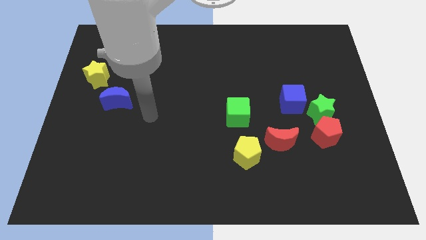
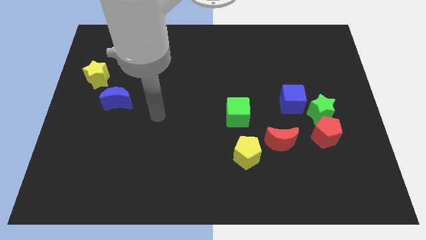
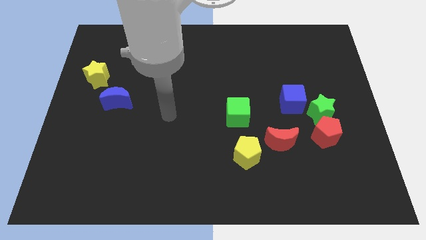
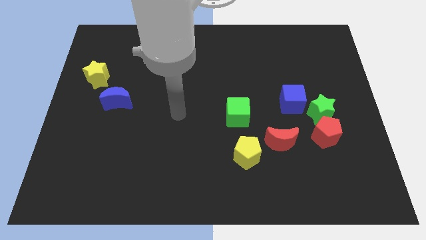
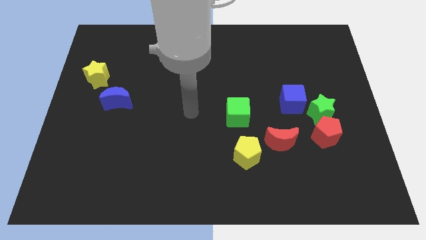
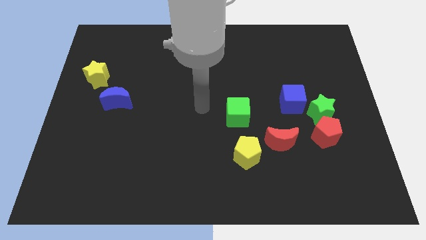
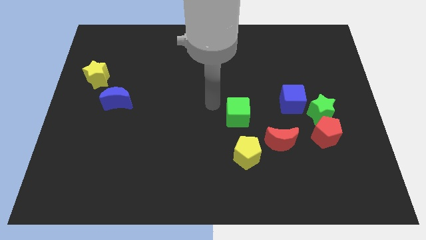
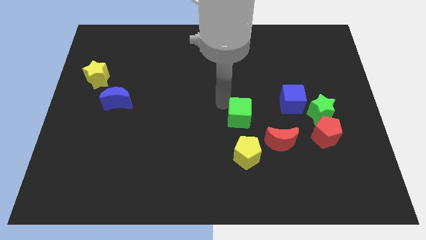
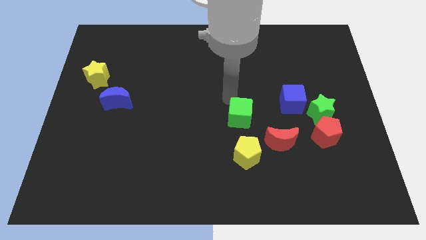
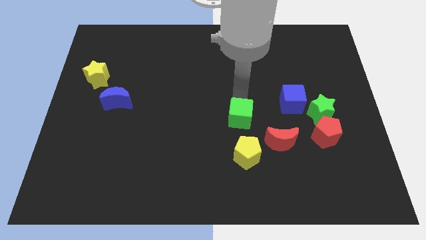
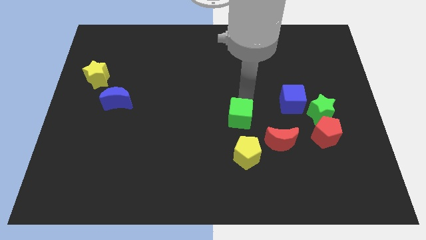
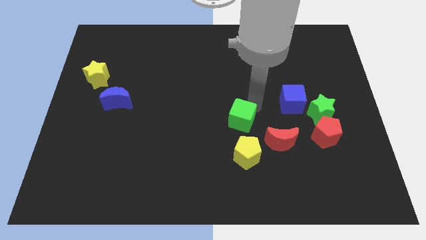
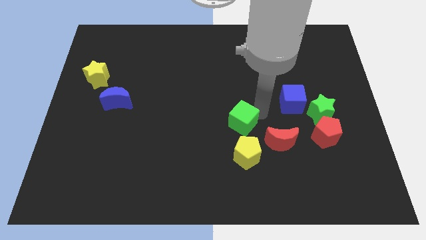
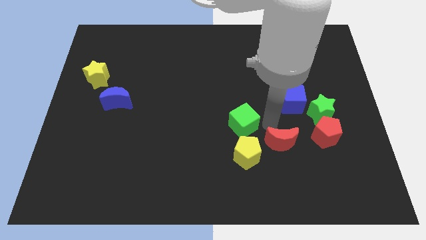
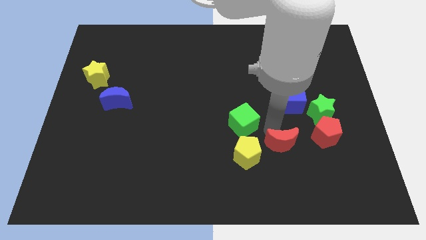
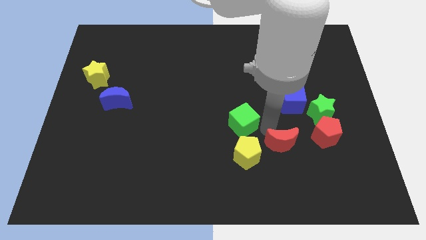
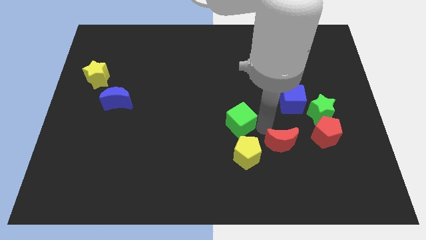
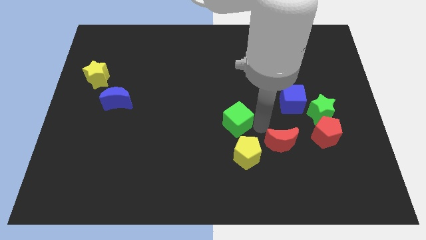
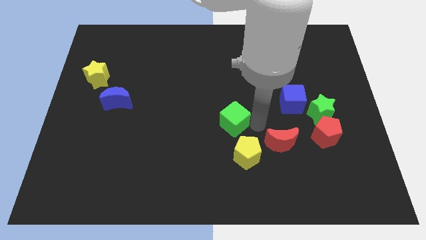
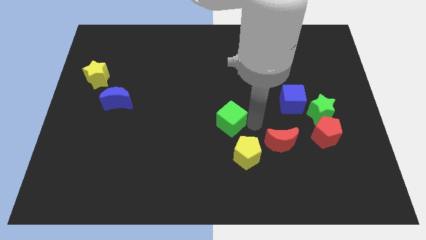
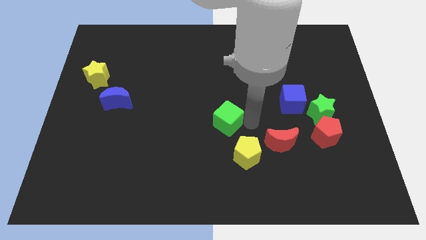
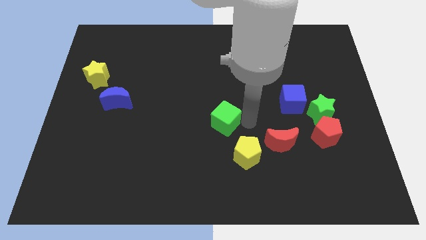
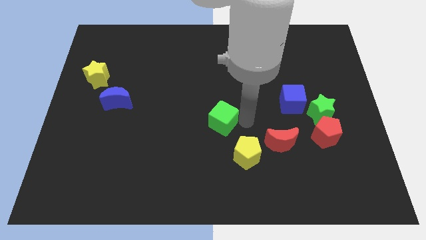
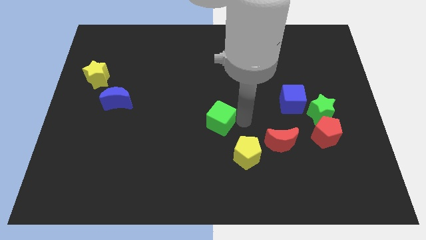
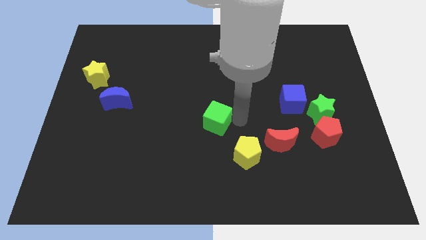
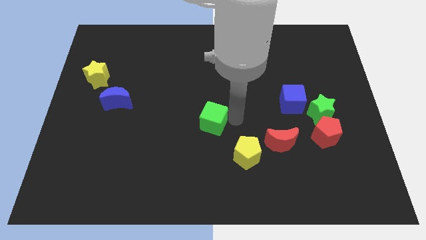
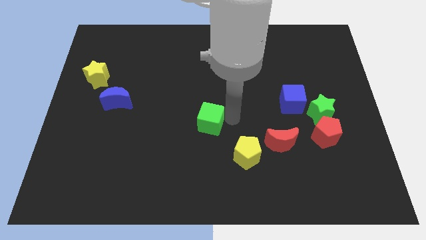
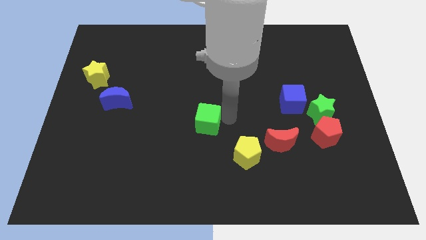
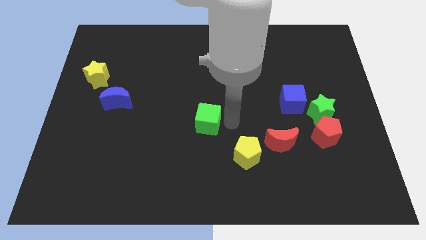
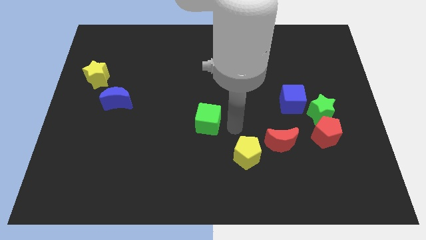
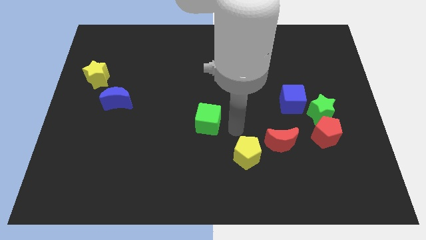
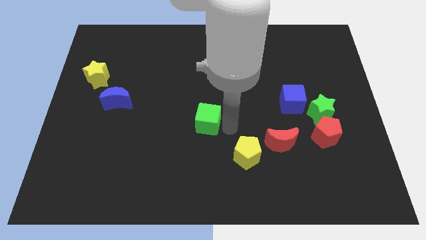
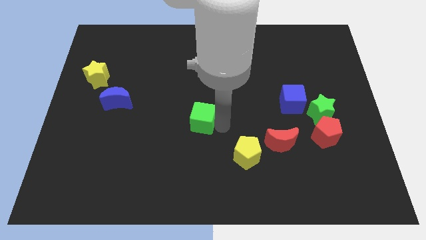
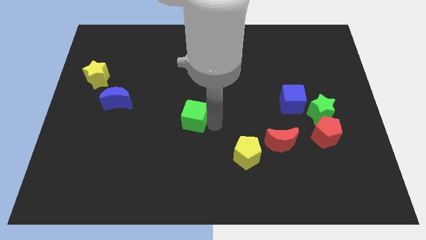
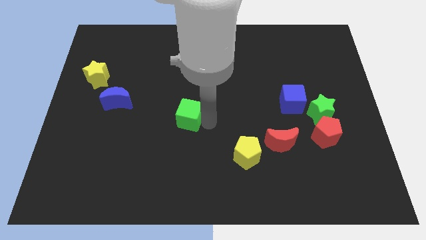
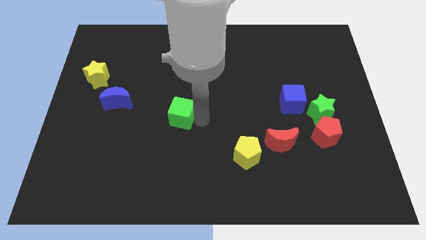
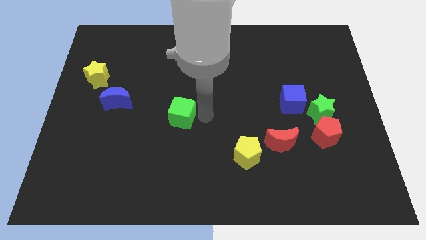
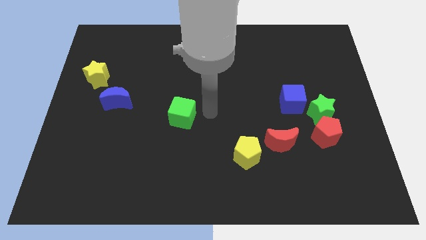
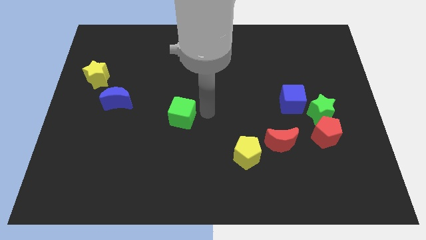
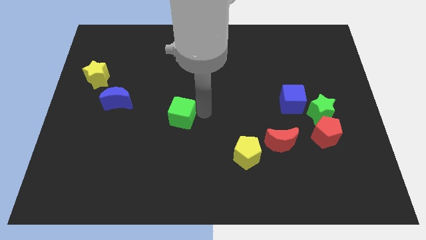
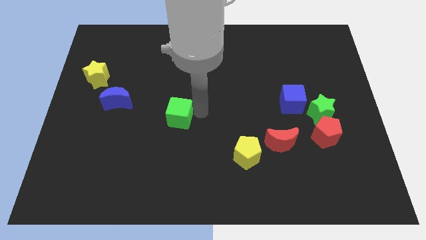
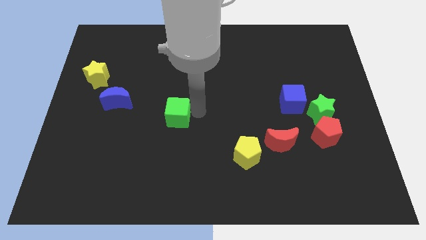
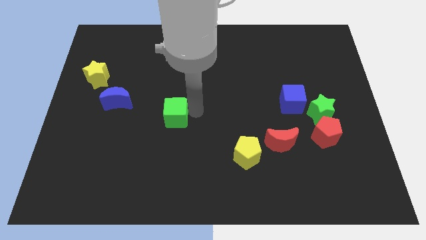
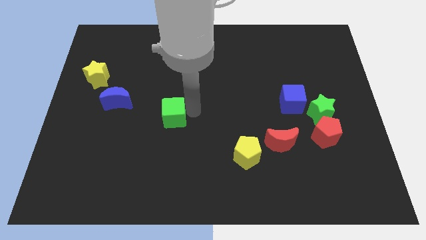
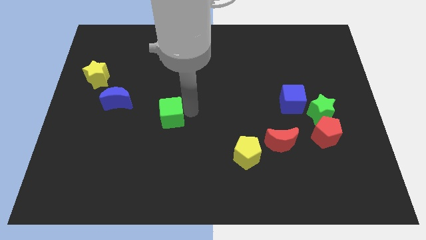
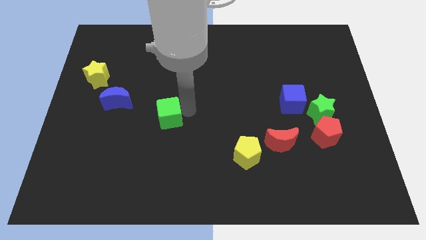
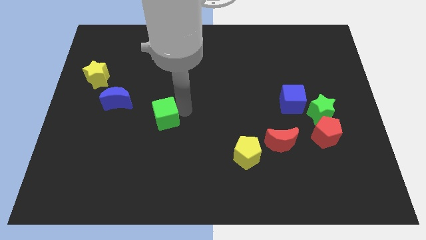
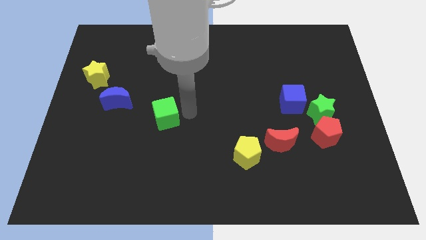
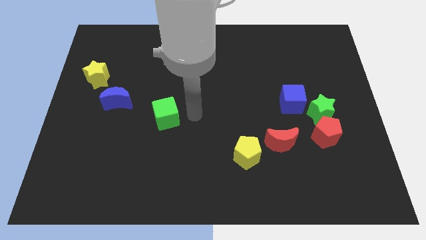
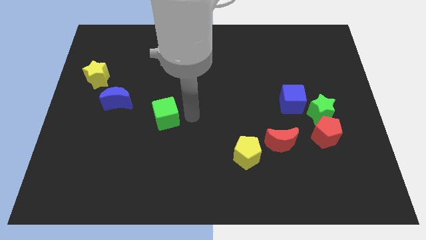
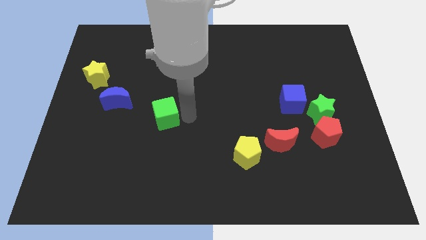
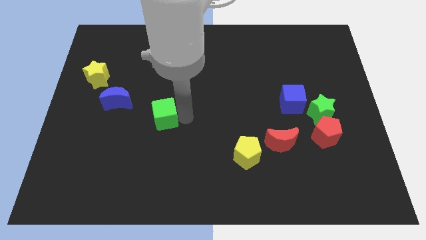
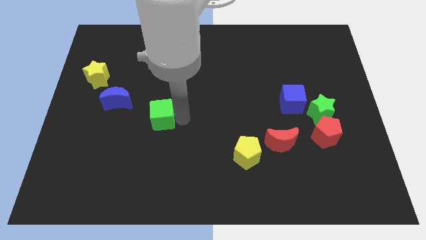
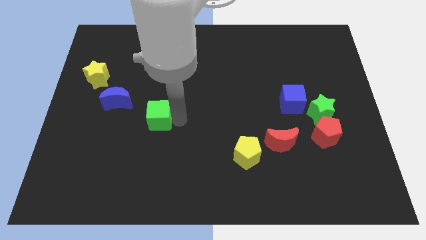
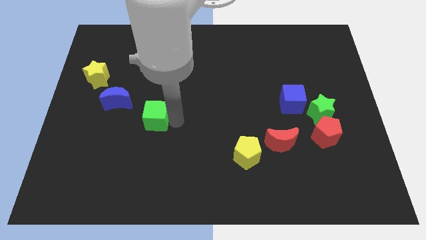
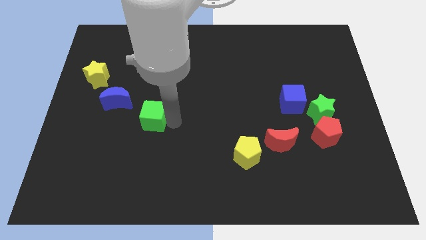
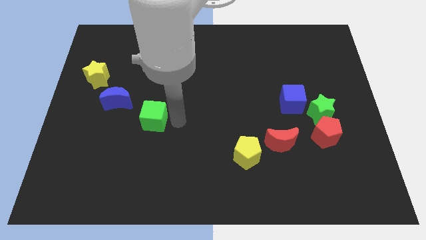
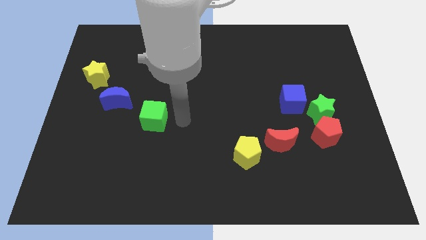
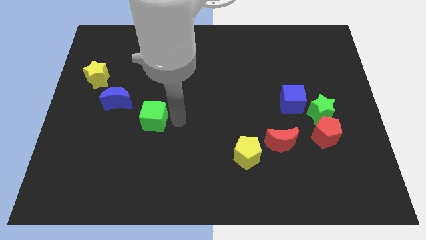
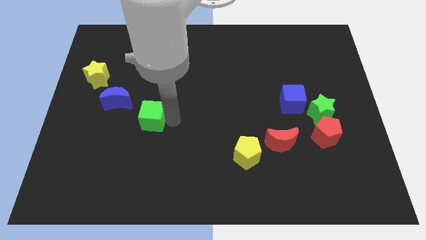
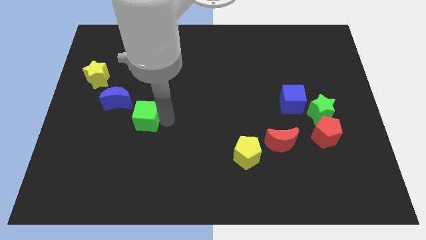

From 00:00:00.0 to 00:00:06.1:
move the green cube left

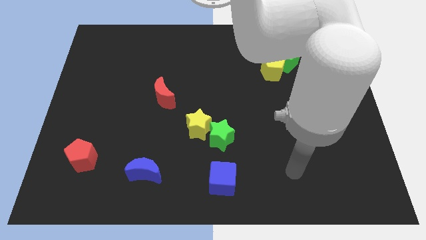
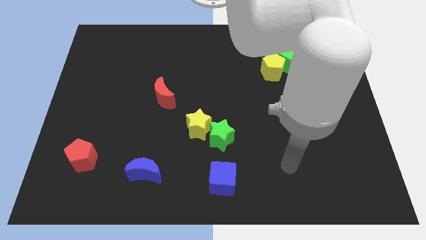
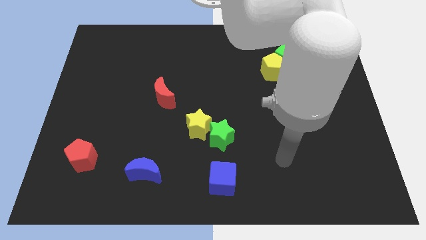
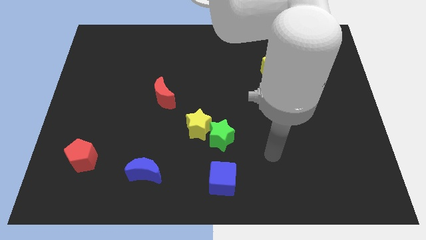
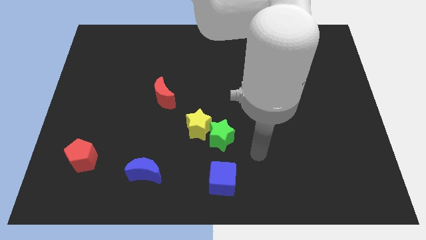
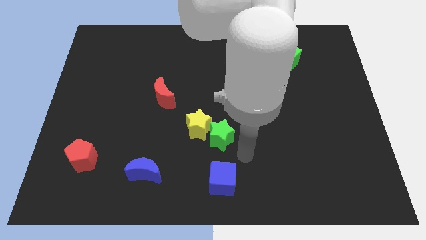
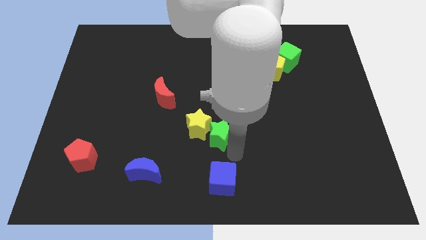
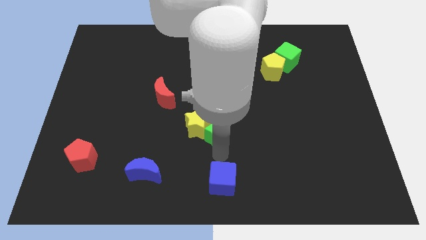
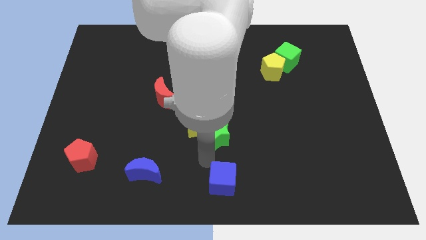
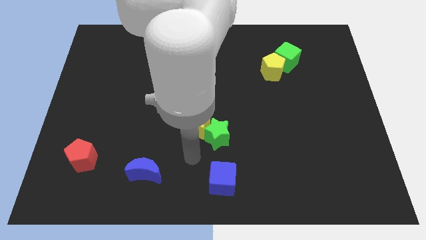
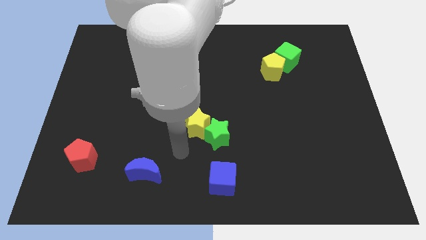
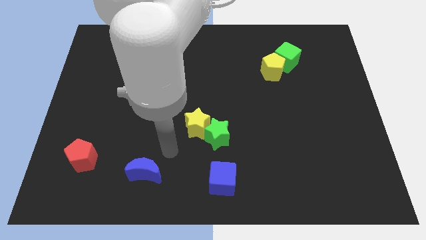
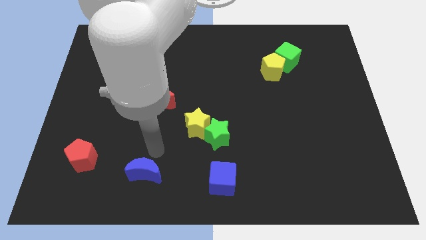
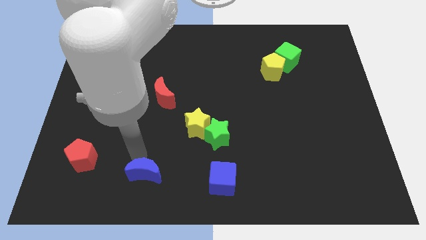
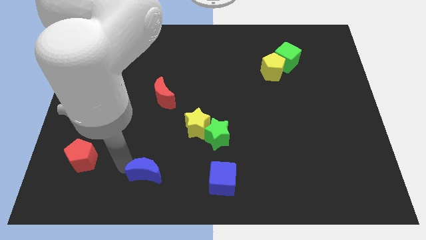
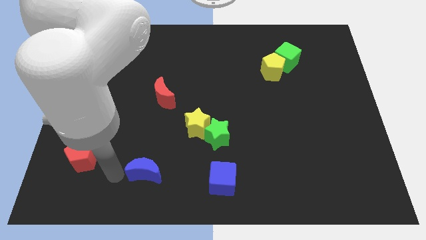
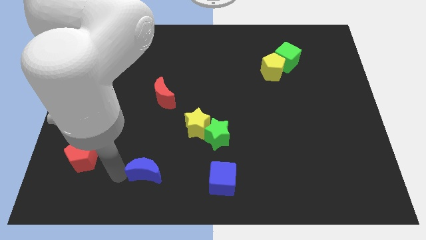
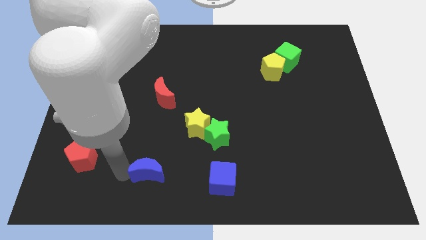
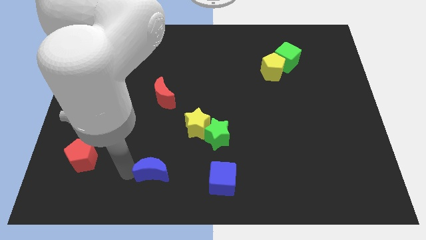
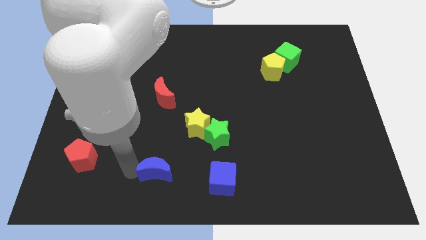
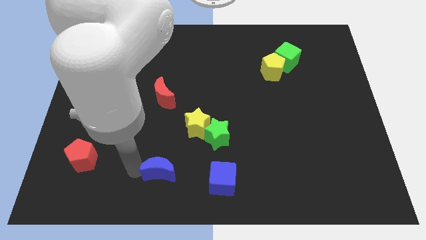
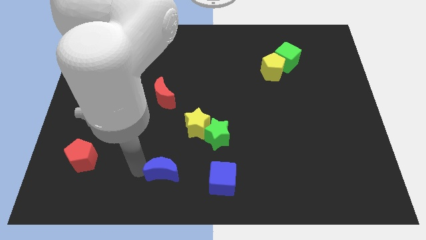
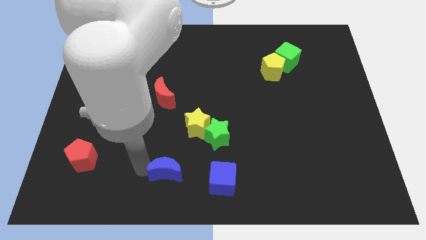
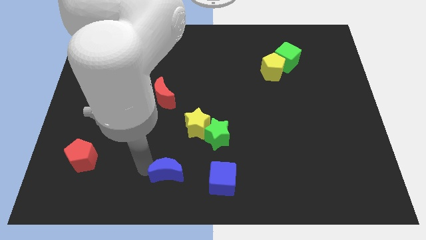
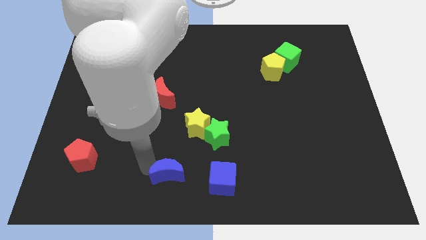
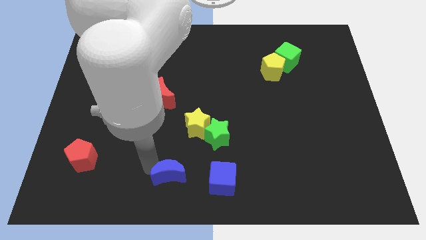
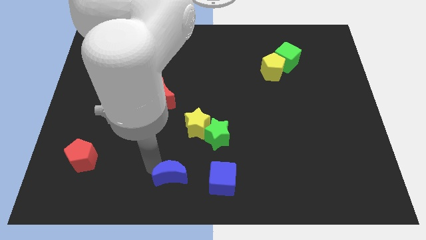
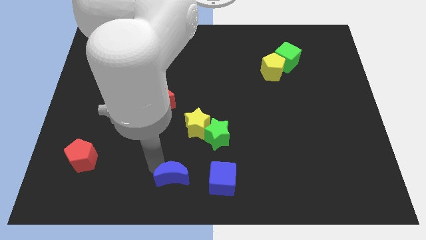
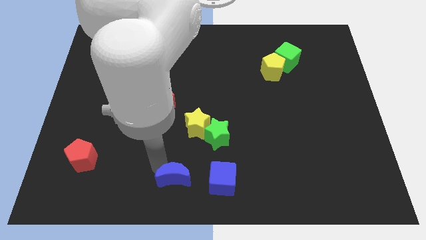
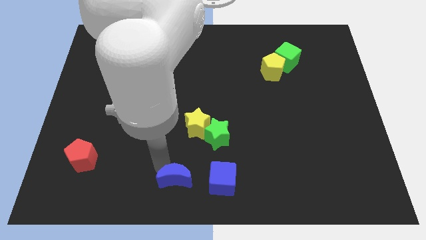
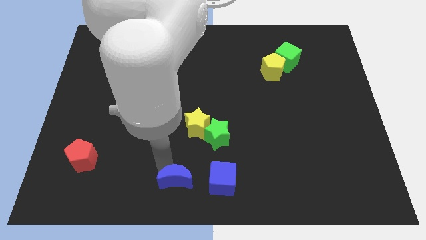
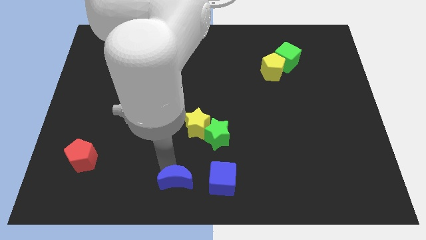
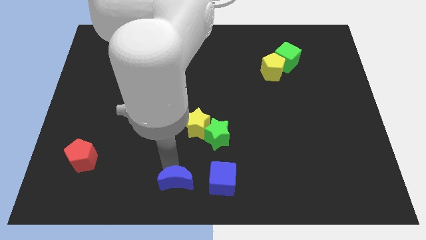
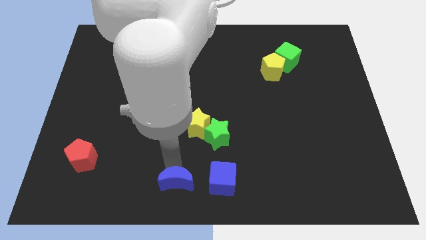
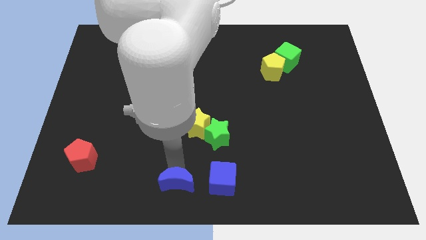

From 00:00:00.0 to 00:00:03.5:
push the blue moon a bit right
